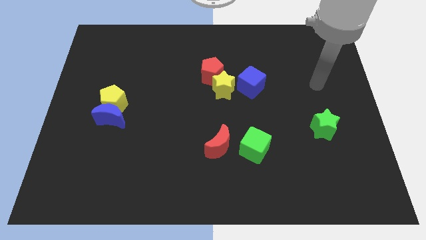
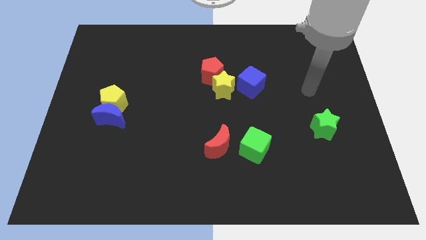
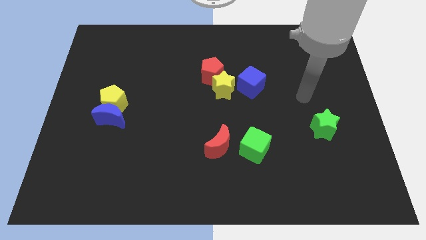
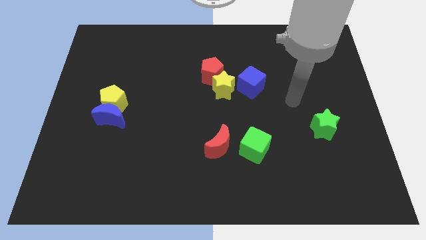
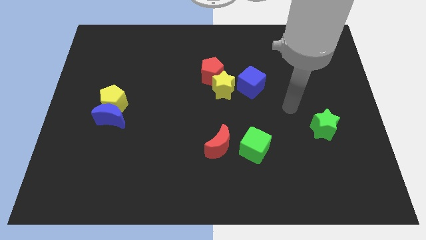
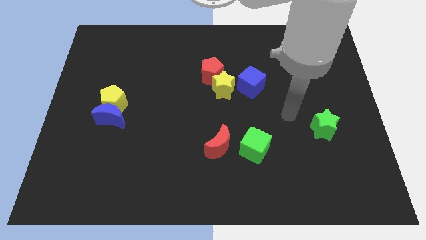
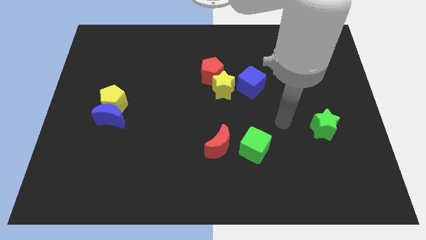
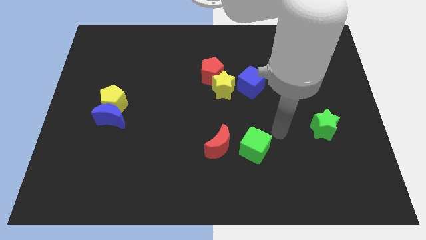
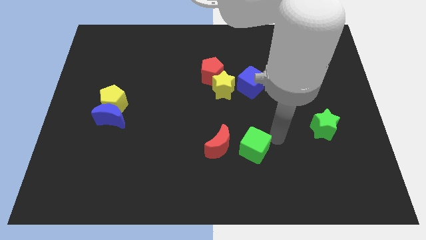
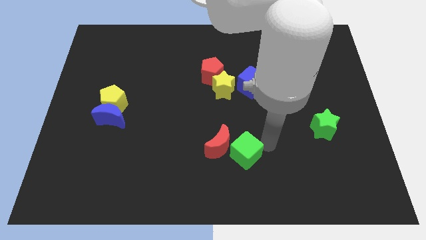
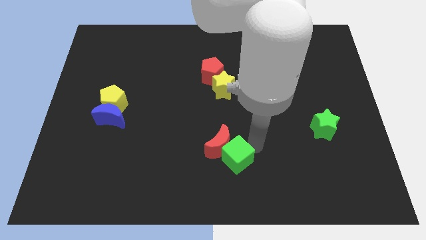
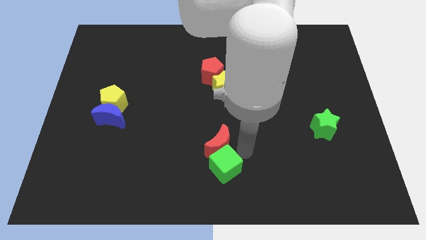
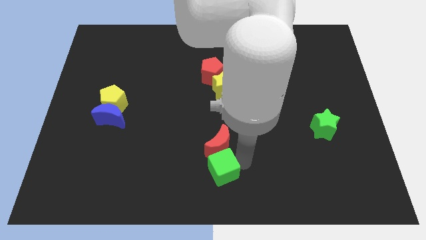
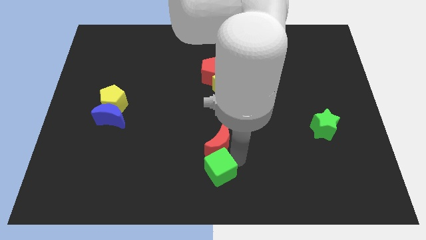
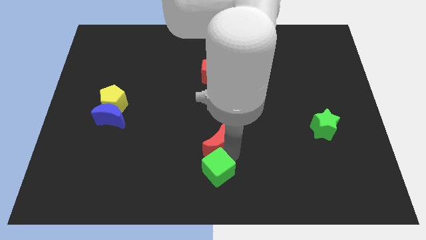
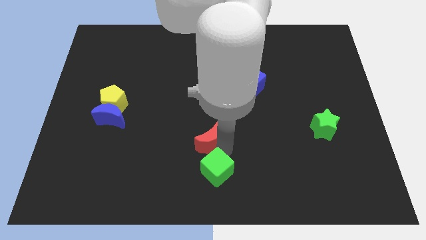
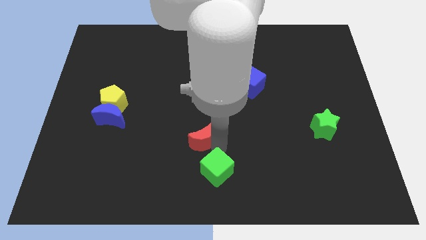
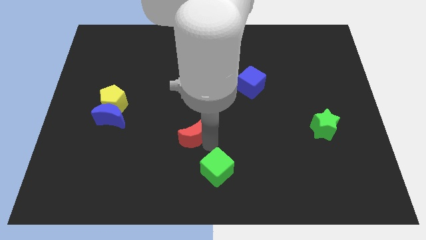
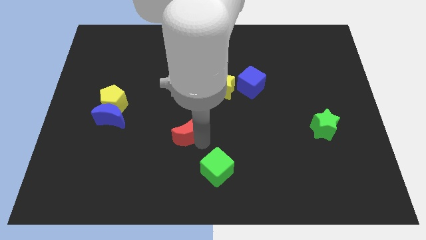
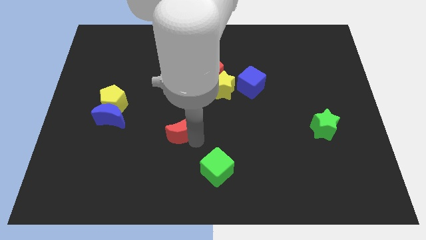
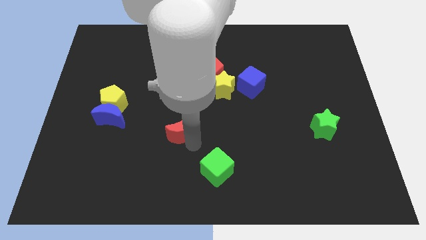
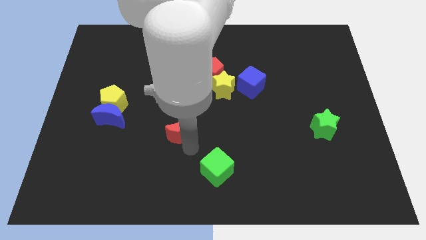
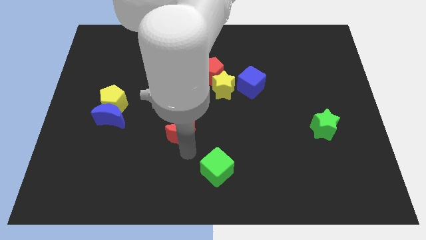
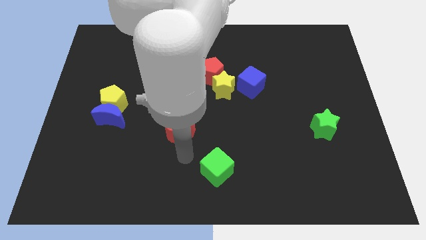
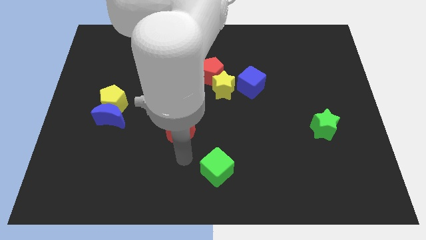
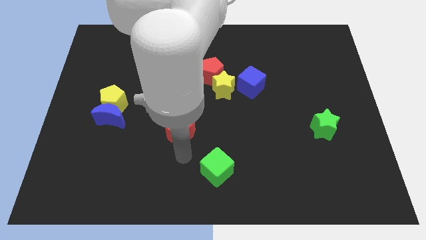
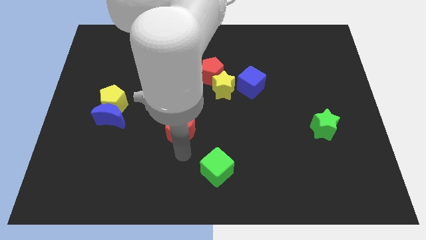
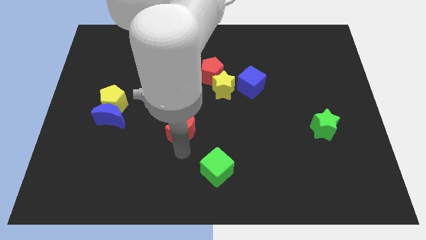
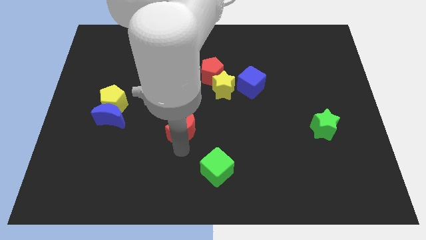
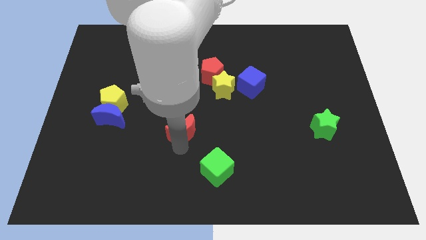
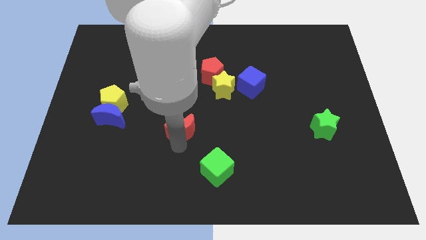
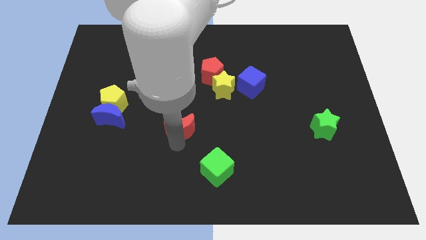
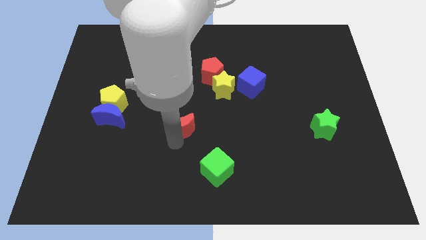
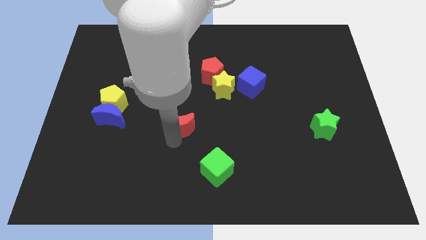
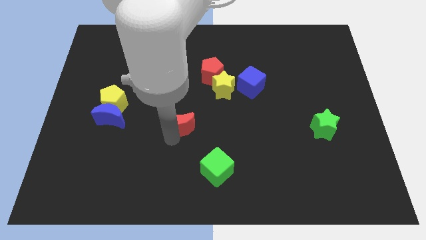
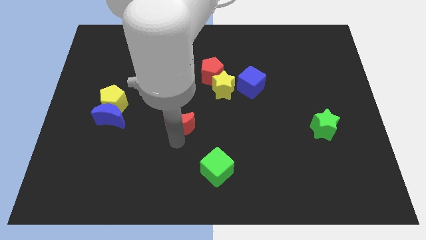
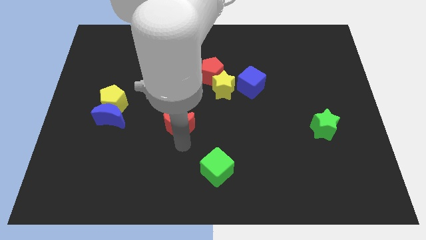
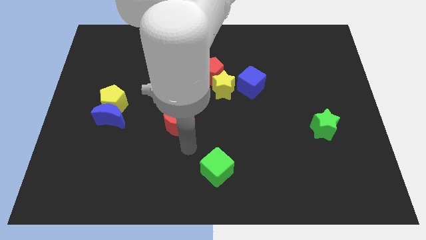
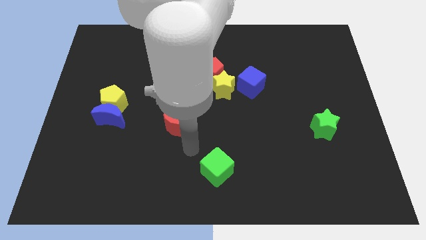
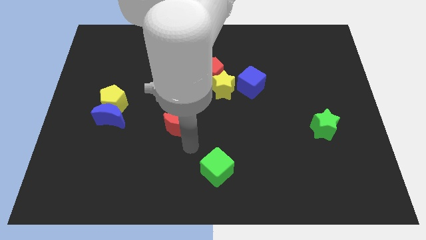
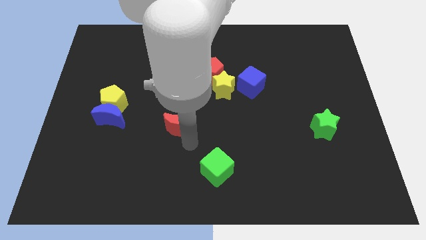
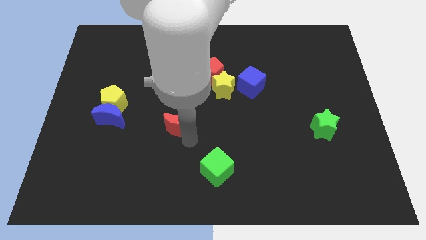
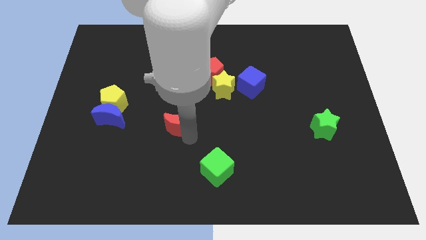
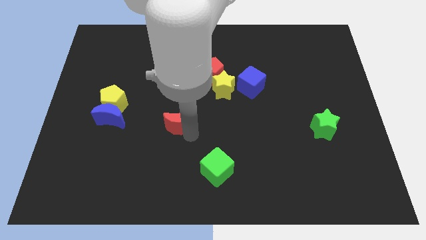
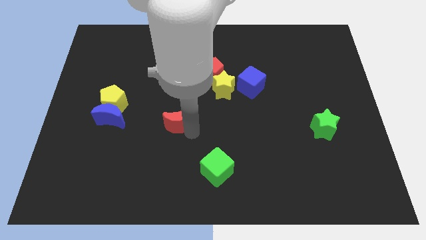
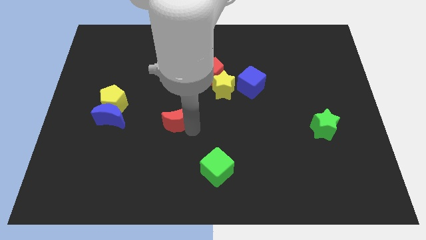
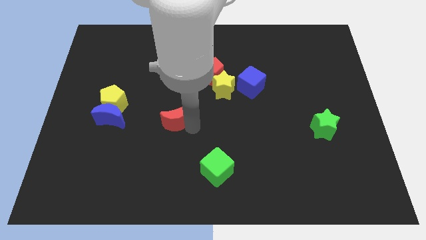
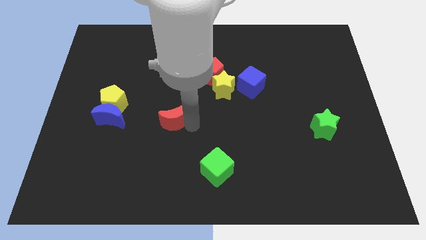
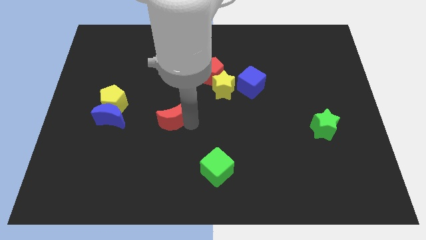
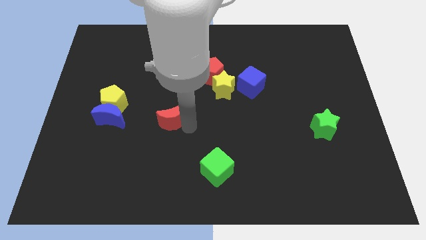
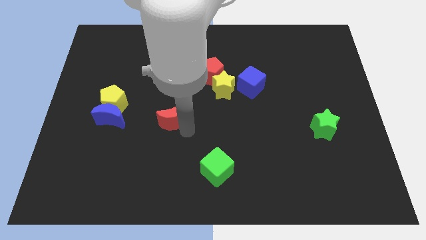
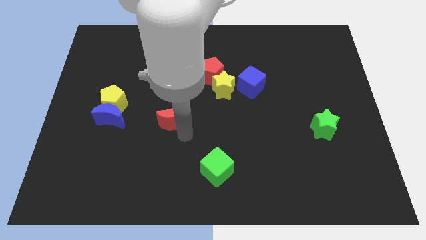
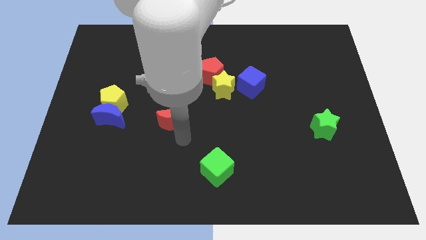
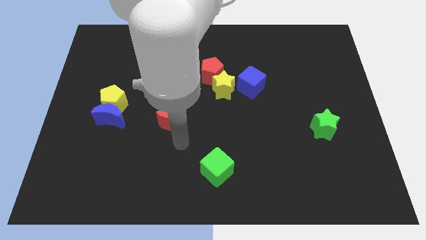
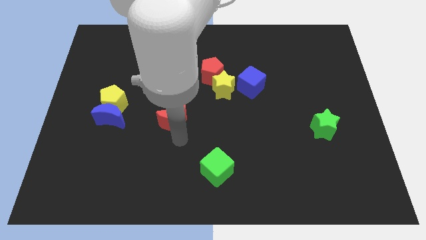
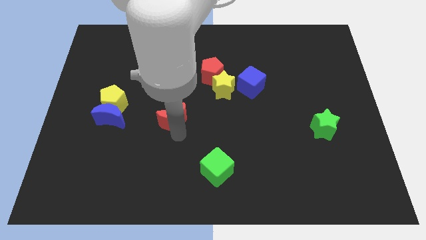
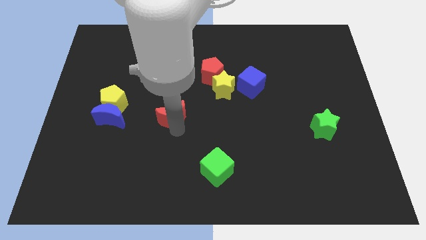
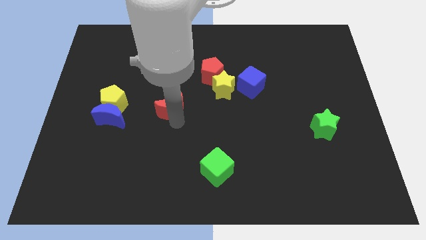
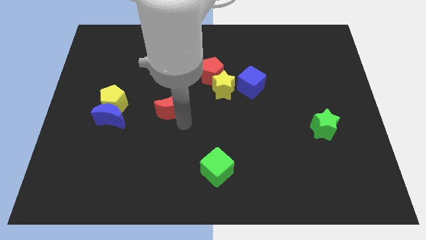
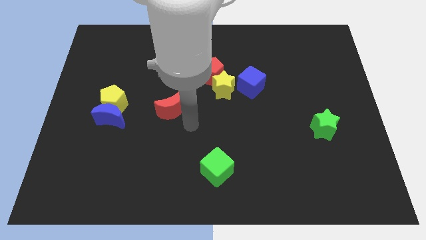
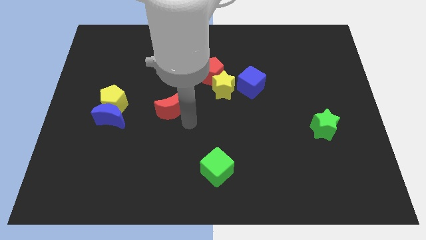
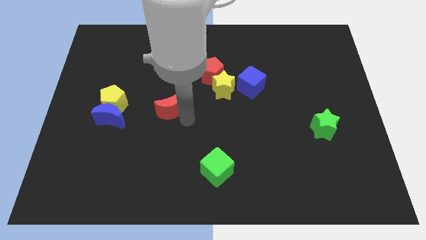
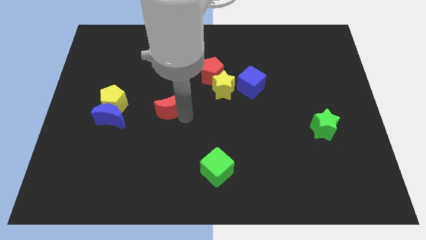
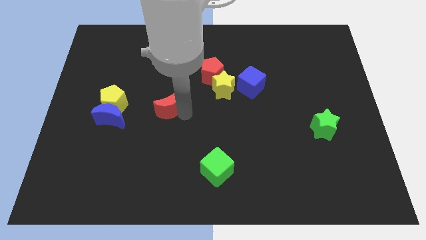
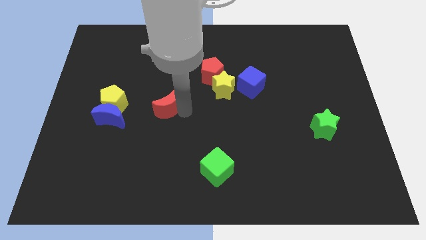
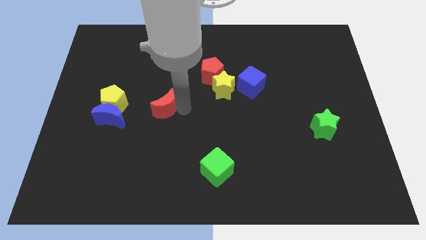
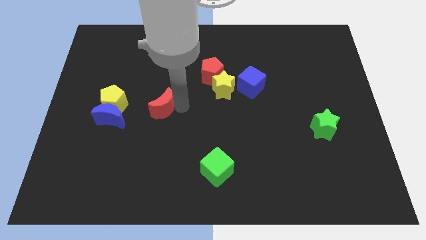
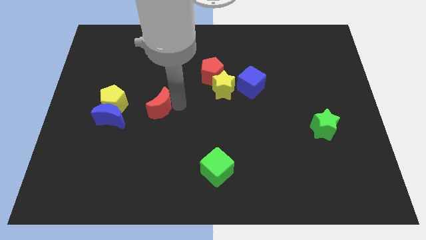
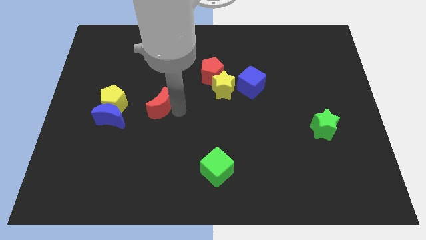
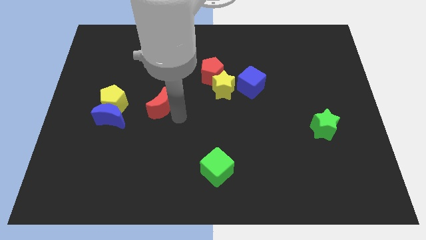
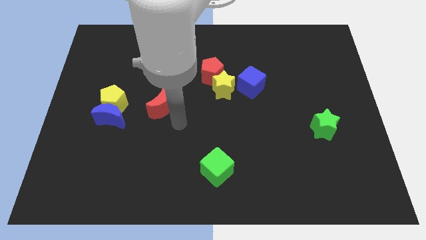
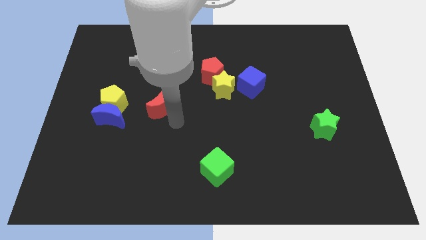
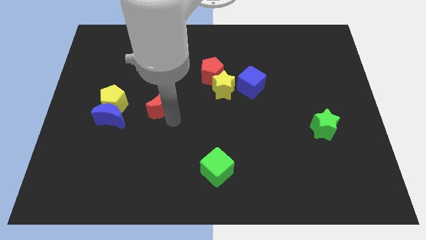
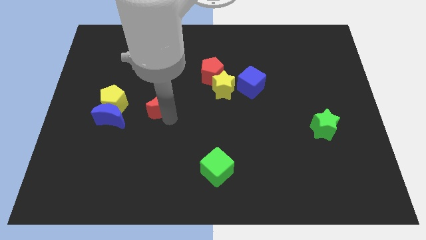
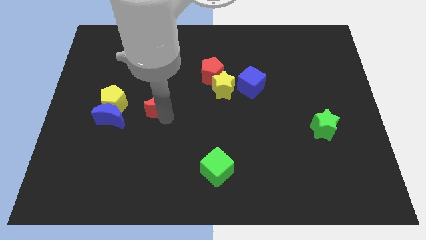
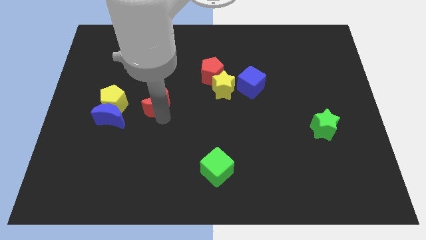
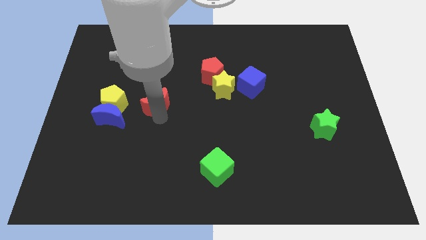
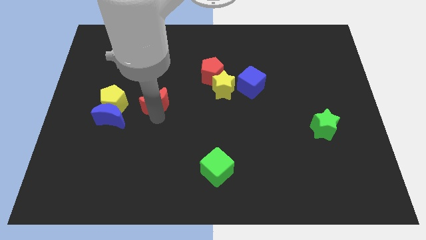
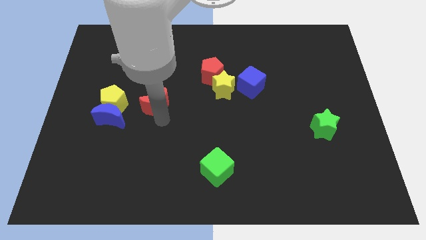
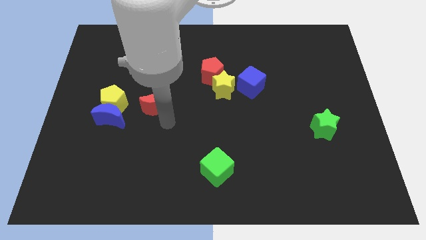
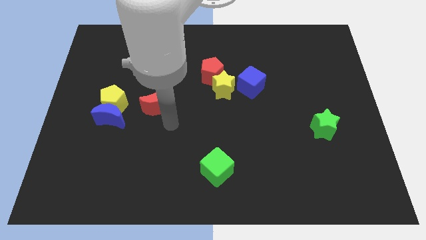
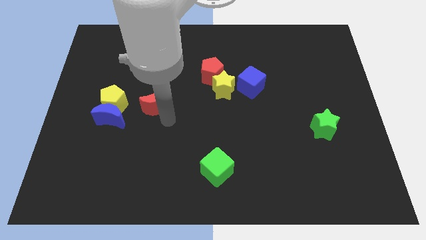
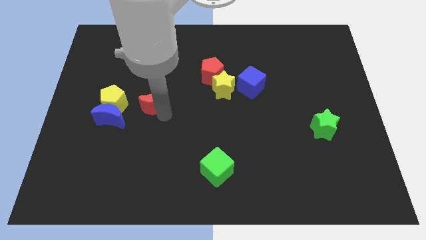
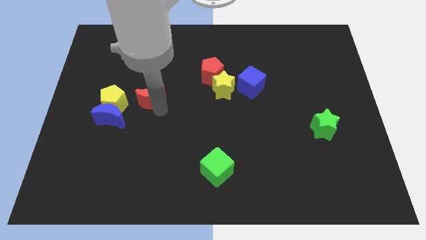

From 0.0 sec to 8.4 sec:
move the red moon up and to the left diagonally
